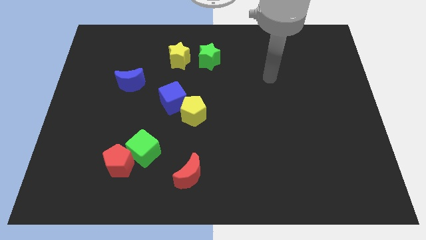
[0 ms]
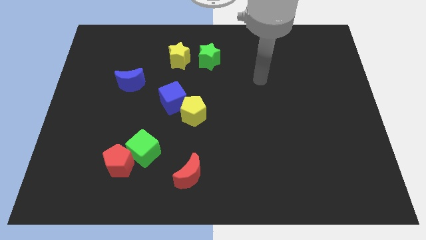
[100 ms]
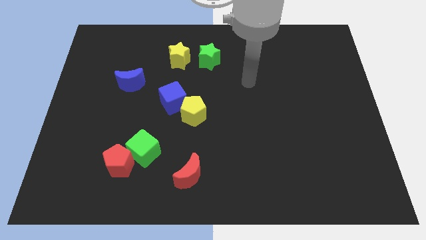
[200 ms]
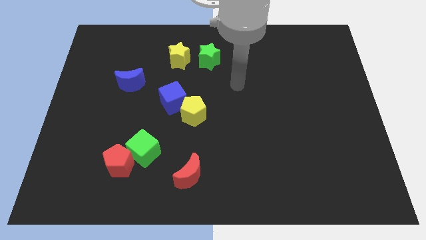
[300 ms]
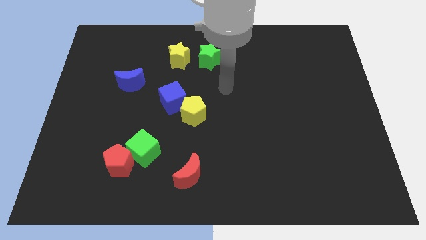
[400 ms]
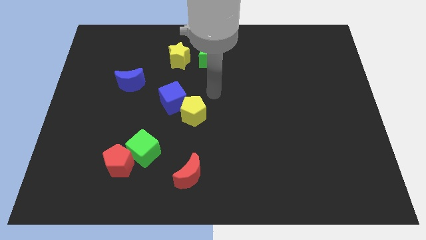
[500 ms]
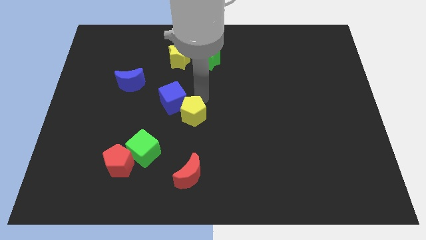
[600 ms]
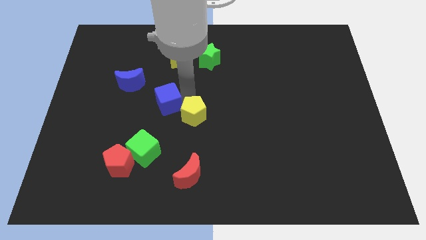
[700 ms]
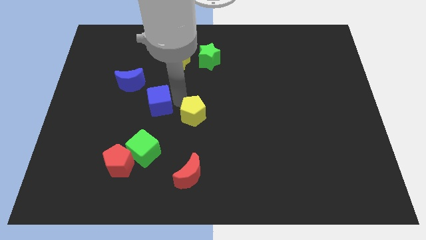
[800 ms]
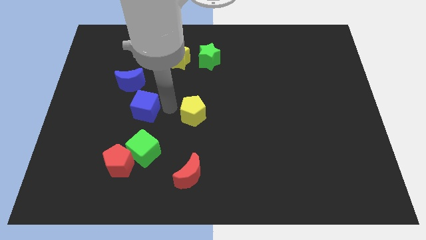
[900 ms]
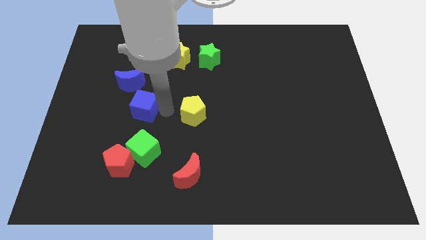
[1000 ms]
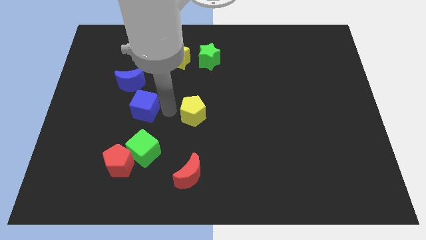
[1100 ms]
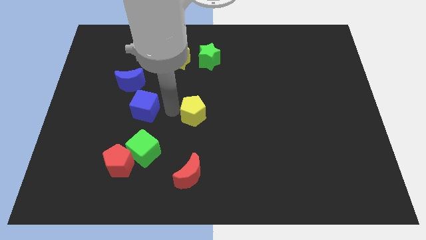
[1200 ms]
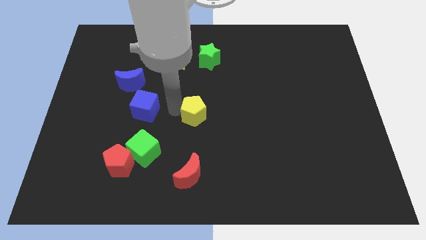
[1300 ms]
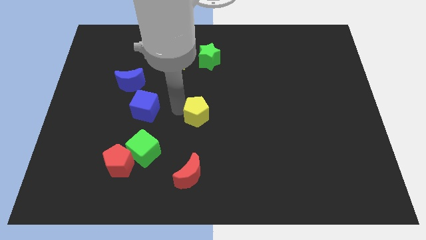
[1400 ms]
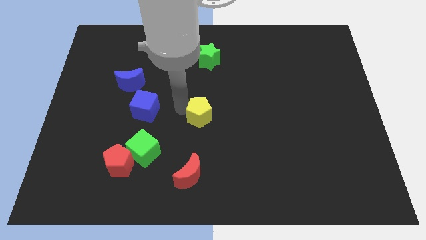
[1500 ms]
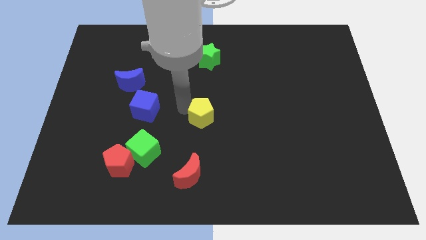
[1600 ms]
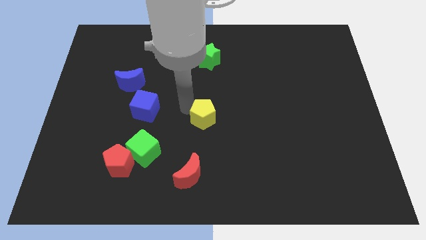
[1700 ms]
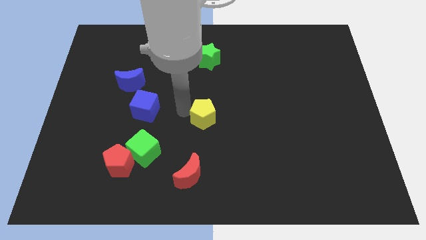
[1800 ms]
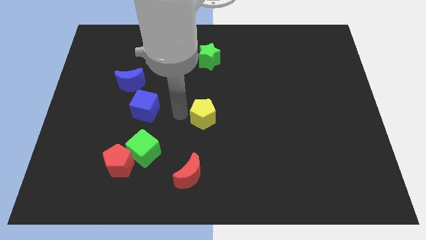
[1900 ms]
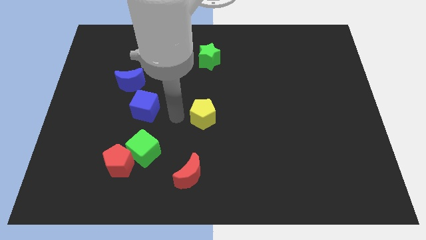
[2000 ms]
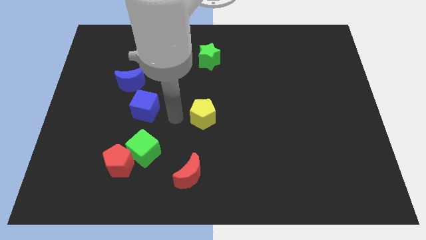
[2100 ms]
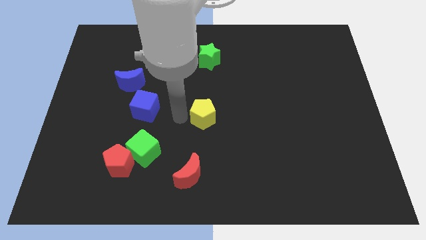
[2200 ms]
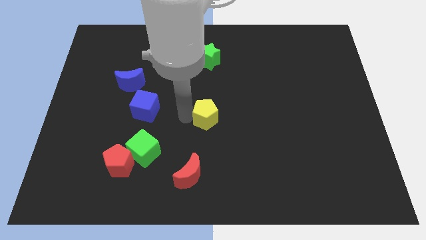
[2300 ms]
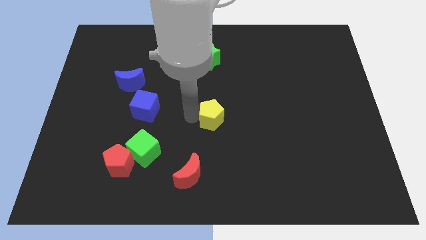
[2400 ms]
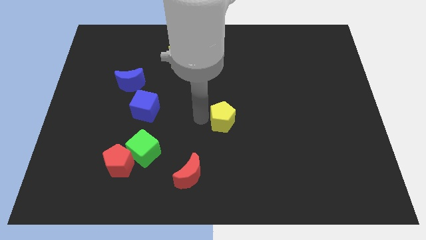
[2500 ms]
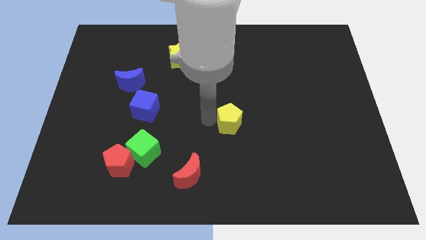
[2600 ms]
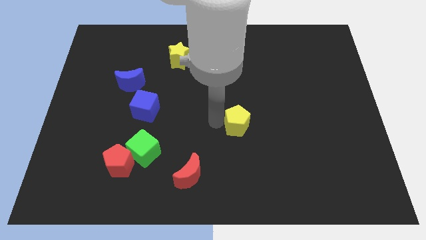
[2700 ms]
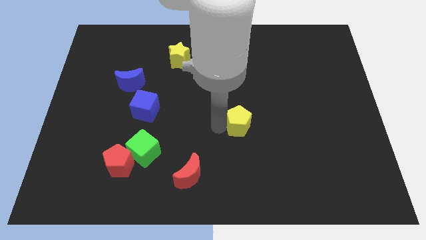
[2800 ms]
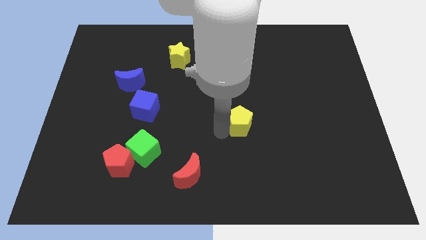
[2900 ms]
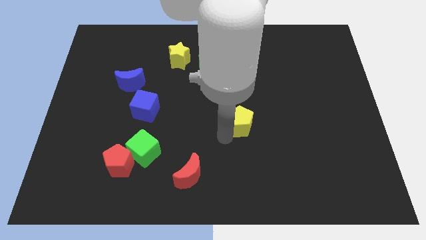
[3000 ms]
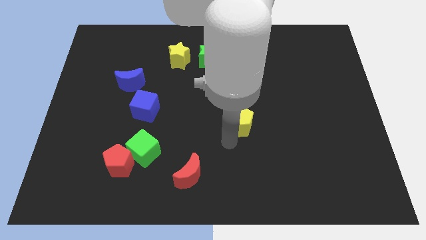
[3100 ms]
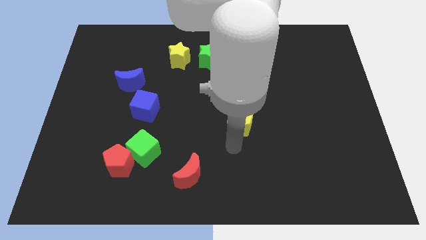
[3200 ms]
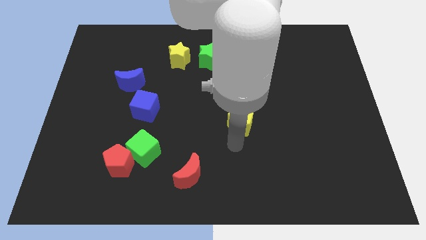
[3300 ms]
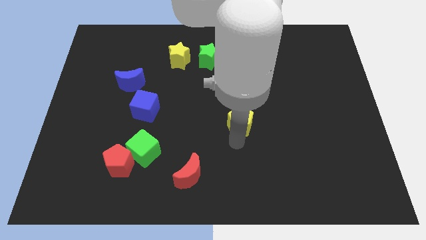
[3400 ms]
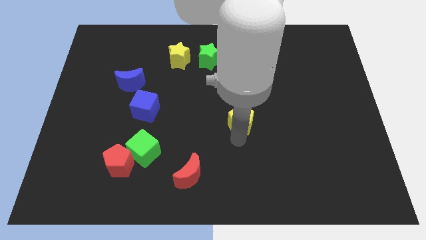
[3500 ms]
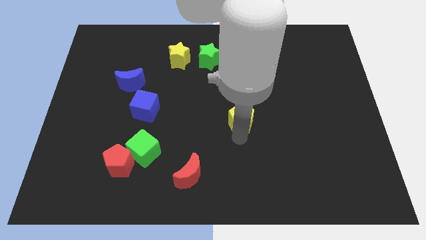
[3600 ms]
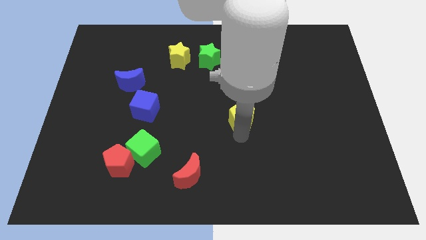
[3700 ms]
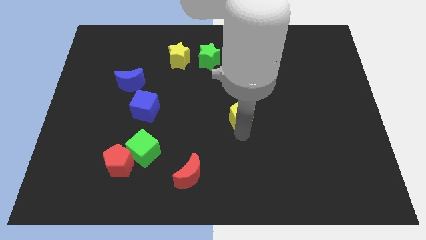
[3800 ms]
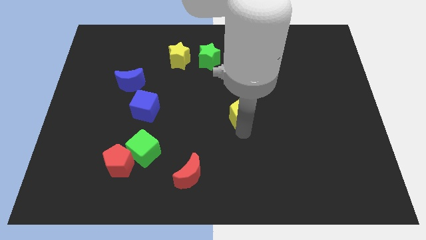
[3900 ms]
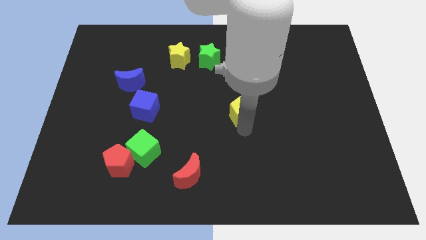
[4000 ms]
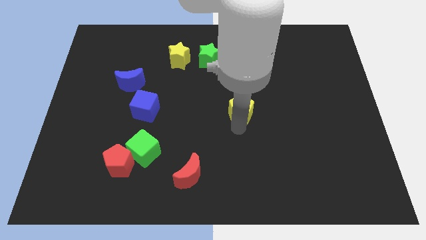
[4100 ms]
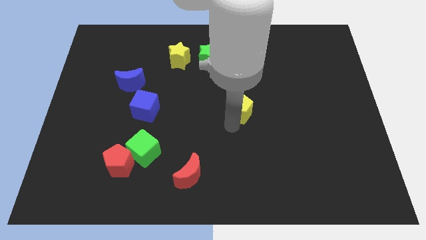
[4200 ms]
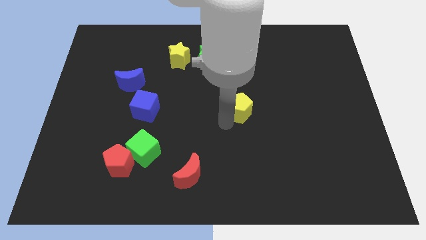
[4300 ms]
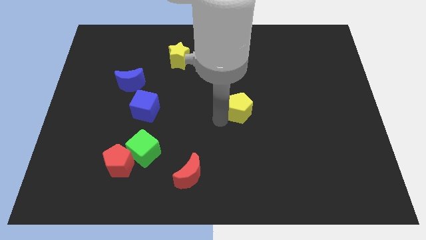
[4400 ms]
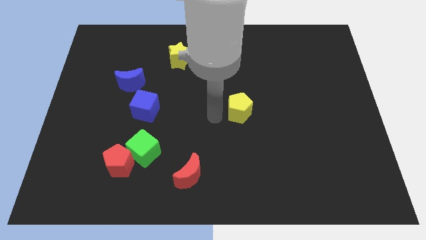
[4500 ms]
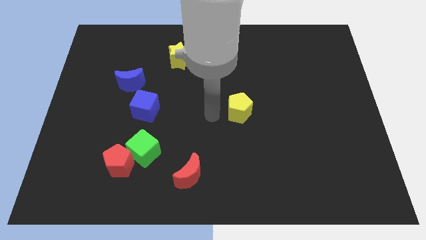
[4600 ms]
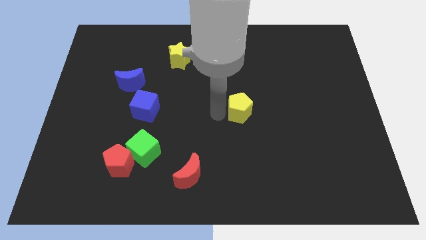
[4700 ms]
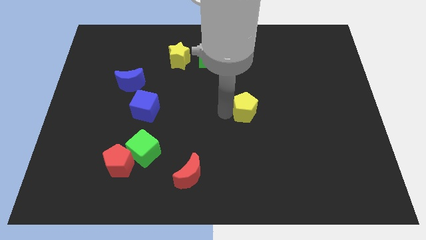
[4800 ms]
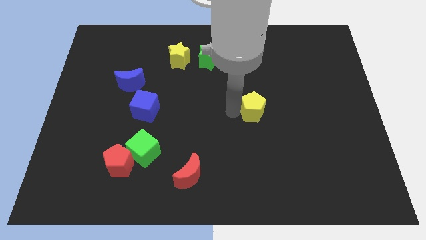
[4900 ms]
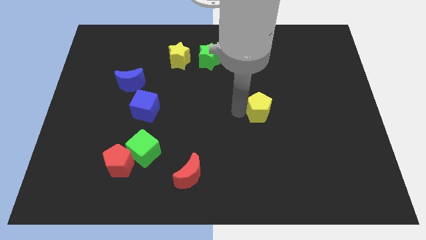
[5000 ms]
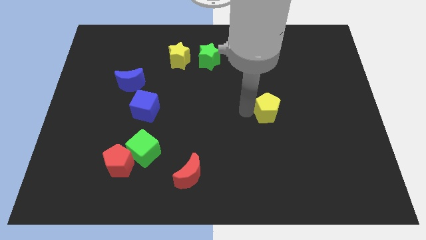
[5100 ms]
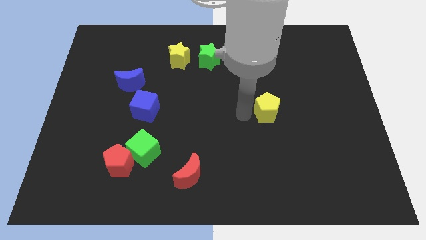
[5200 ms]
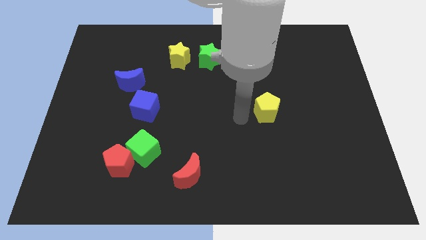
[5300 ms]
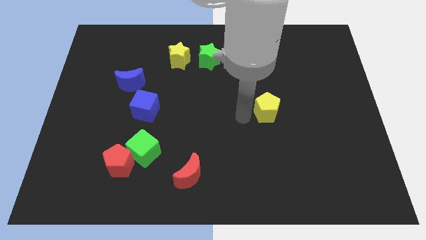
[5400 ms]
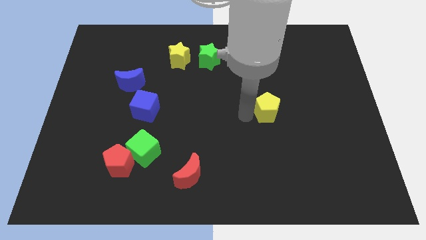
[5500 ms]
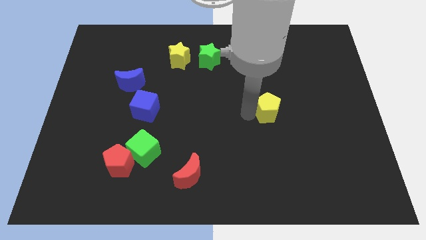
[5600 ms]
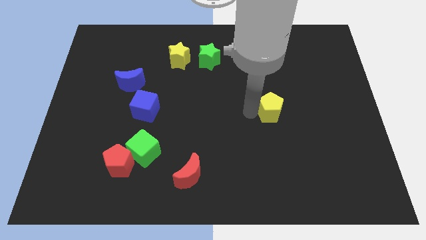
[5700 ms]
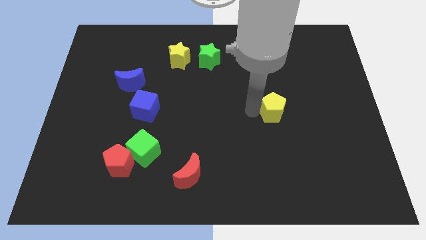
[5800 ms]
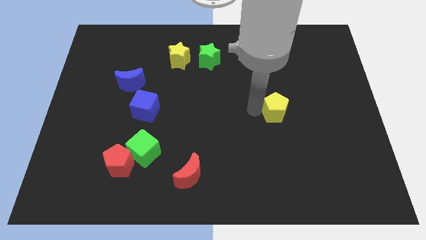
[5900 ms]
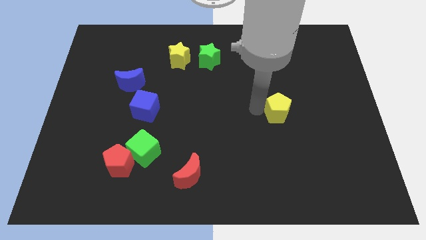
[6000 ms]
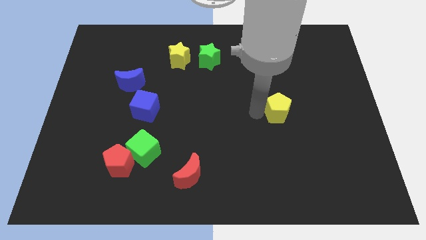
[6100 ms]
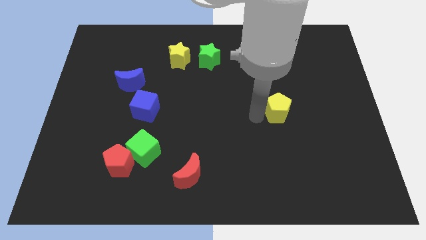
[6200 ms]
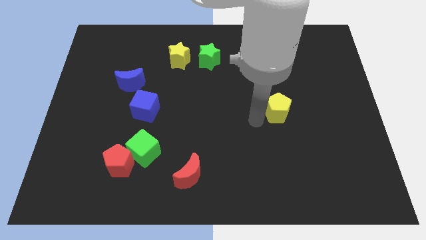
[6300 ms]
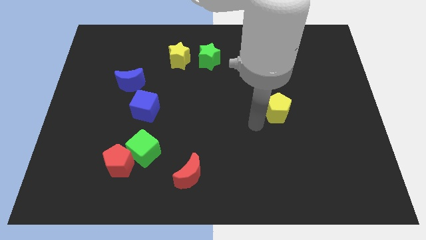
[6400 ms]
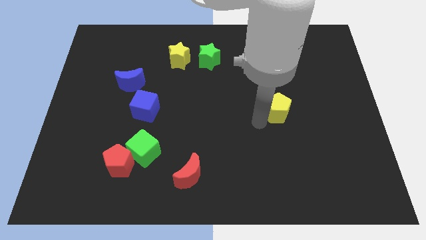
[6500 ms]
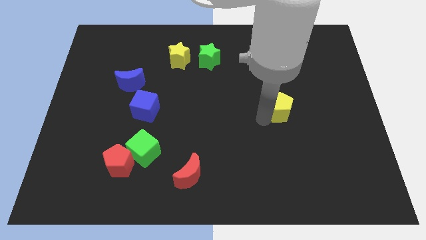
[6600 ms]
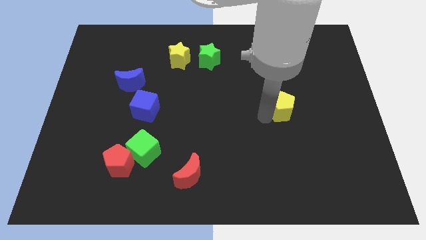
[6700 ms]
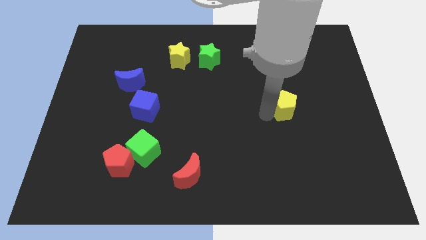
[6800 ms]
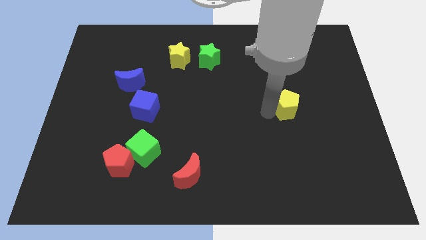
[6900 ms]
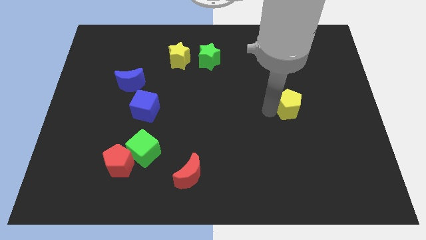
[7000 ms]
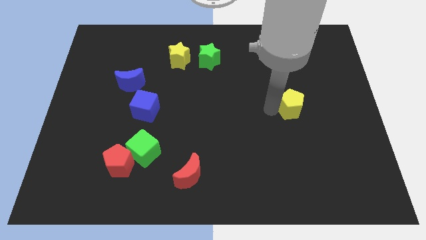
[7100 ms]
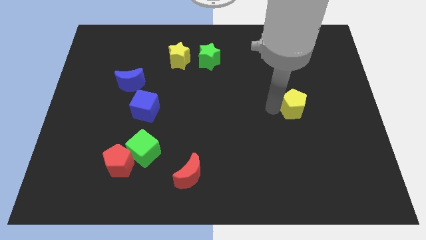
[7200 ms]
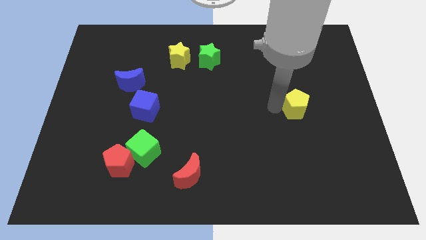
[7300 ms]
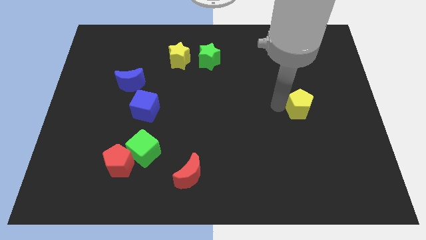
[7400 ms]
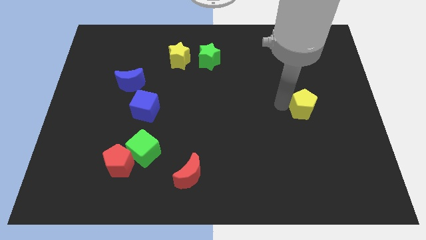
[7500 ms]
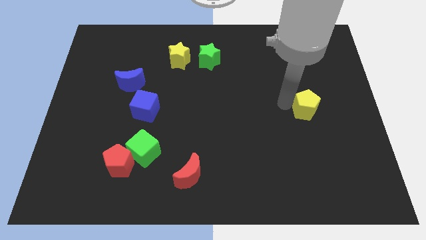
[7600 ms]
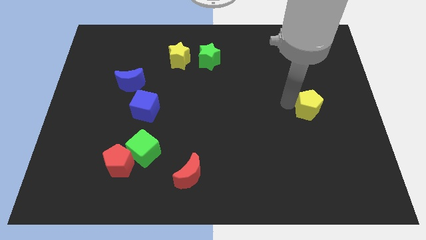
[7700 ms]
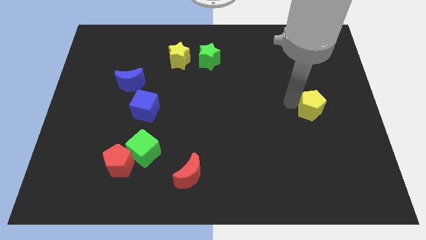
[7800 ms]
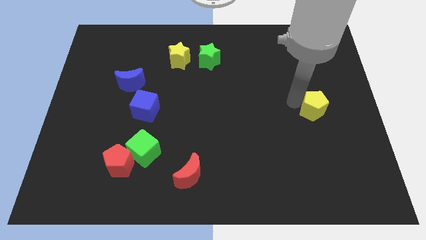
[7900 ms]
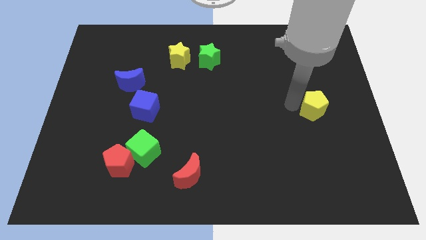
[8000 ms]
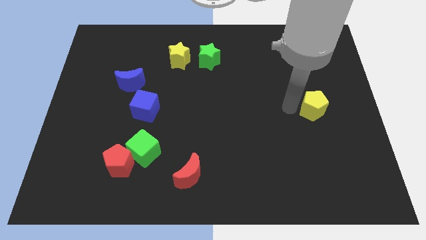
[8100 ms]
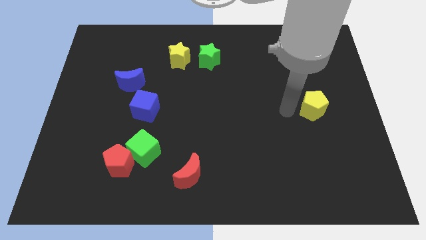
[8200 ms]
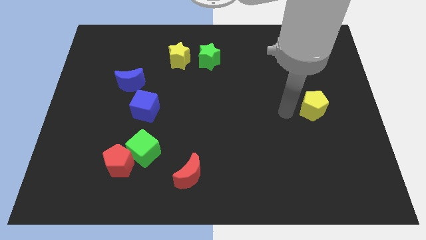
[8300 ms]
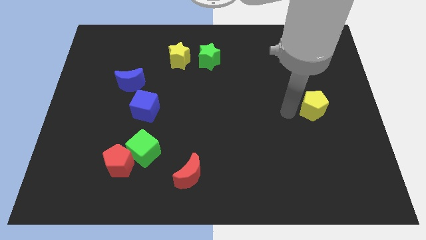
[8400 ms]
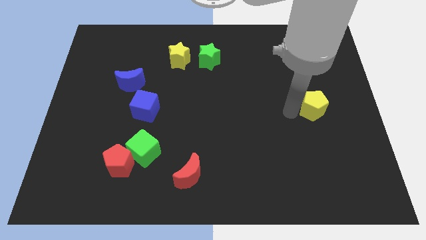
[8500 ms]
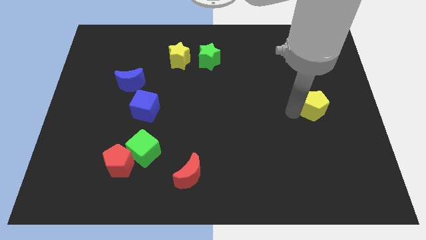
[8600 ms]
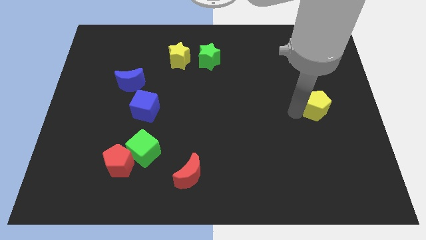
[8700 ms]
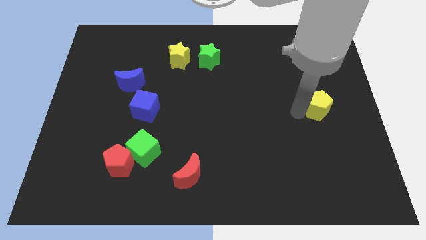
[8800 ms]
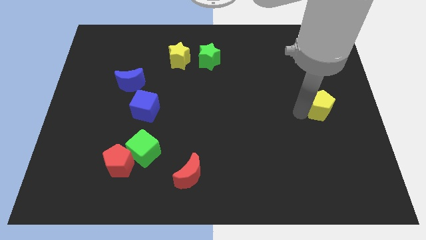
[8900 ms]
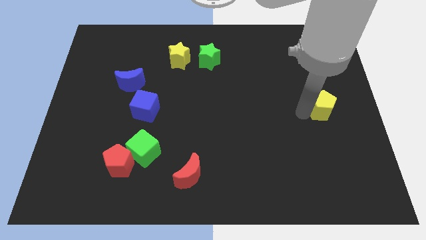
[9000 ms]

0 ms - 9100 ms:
put the yellow pentagon to the right side
